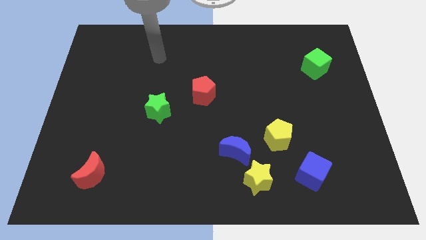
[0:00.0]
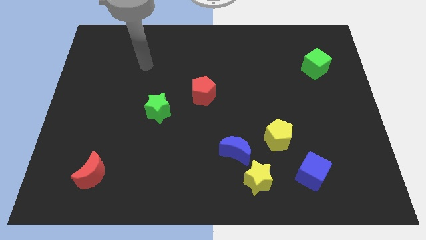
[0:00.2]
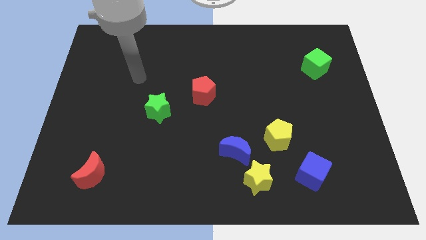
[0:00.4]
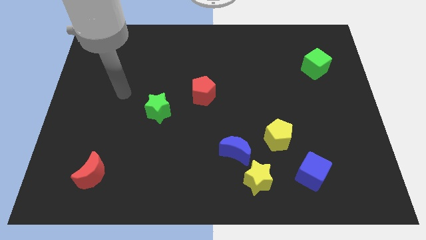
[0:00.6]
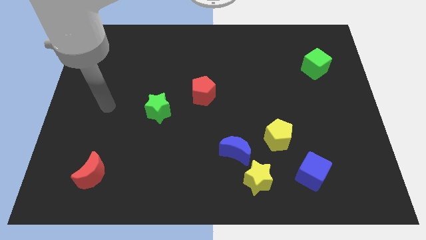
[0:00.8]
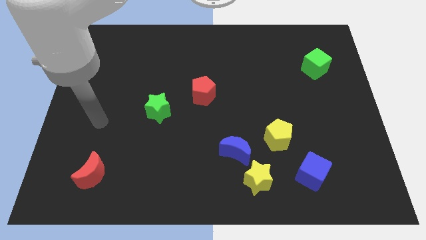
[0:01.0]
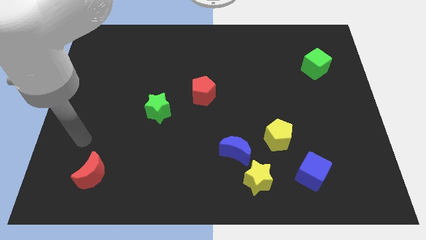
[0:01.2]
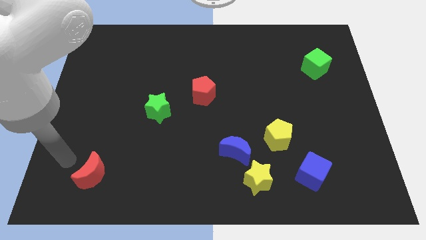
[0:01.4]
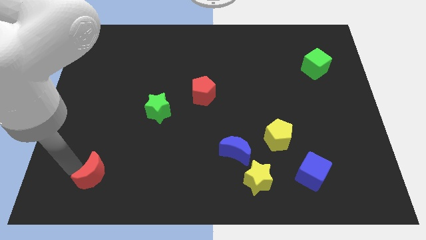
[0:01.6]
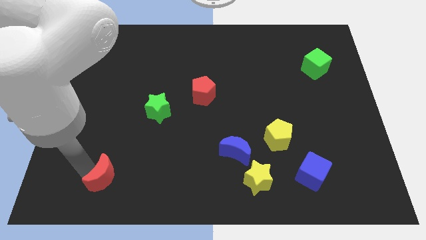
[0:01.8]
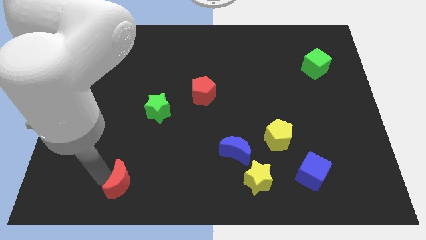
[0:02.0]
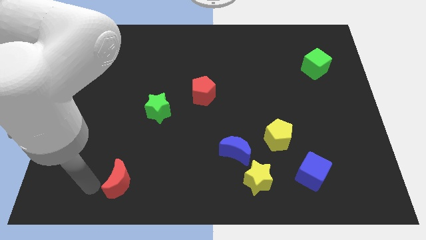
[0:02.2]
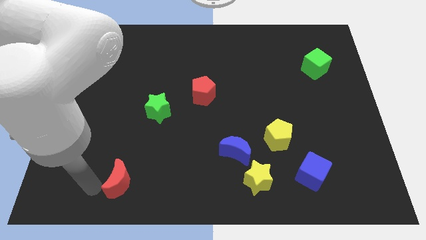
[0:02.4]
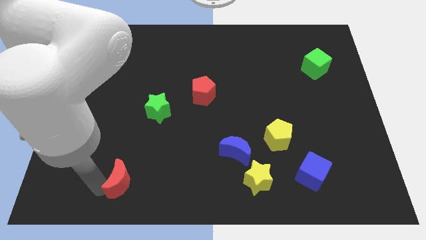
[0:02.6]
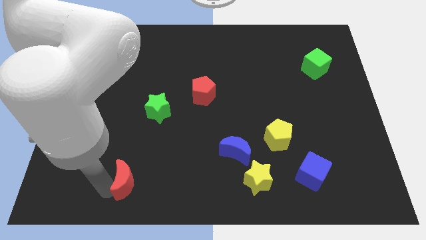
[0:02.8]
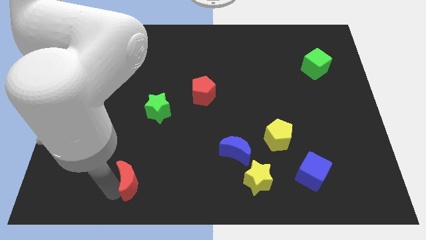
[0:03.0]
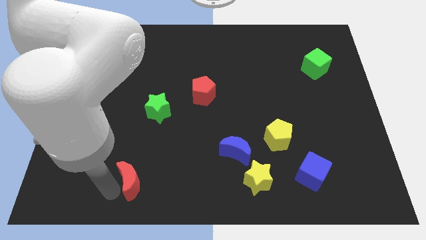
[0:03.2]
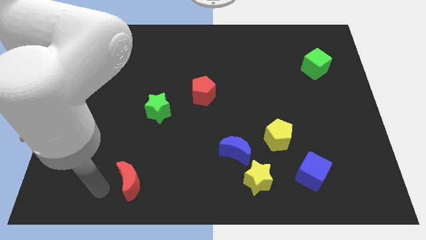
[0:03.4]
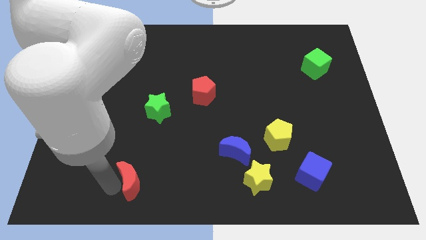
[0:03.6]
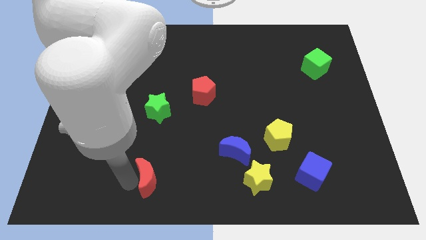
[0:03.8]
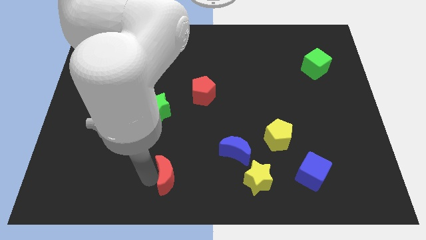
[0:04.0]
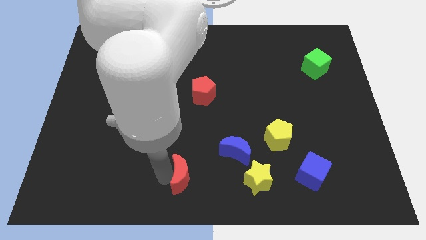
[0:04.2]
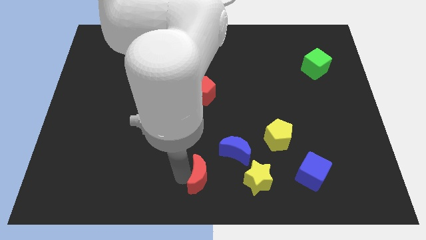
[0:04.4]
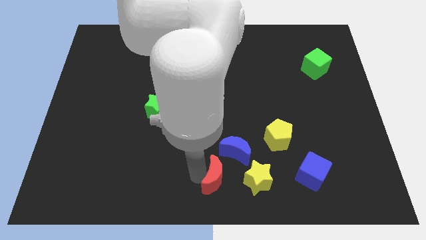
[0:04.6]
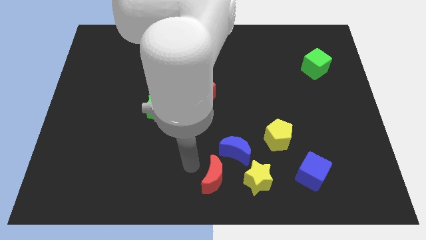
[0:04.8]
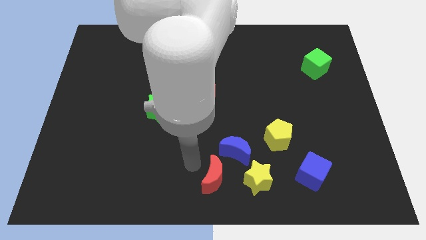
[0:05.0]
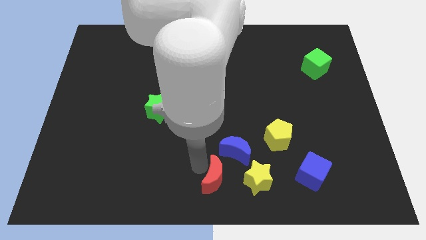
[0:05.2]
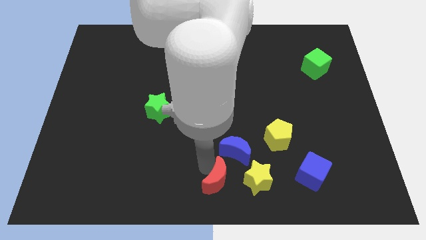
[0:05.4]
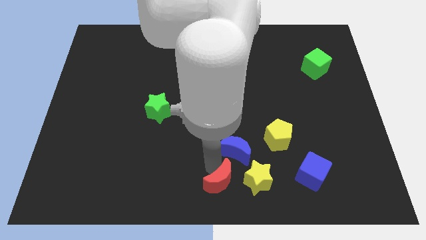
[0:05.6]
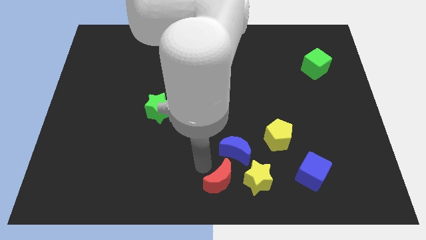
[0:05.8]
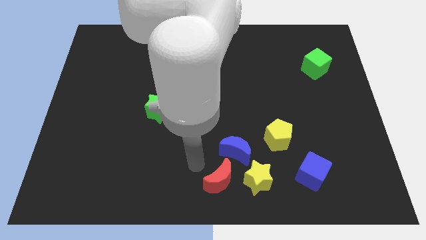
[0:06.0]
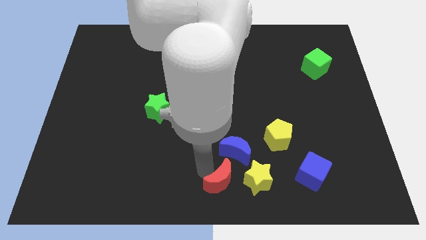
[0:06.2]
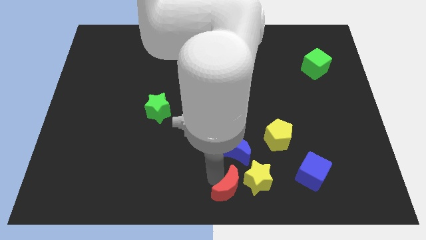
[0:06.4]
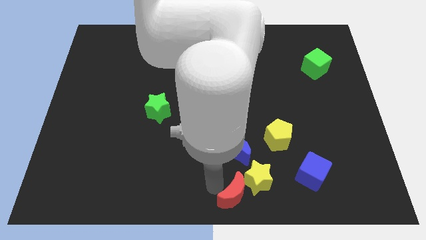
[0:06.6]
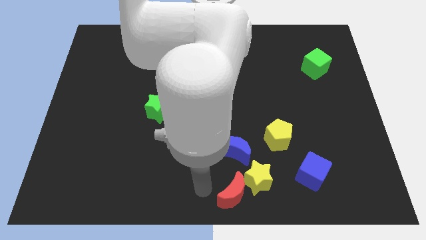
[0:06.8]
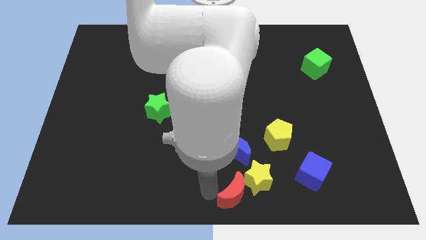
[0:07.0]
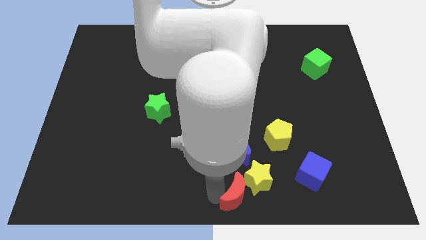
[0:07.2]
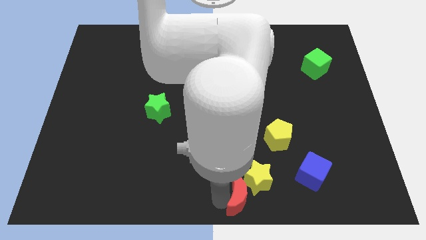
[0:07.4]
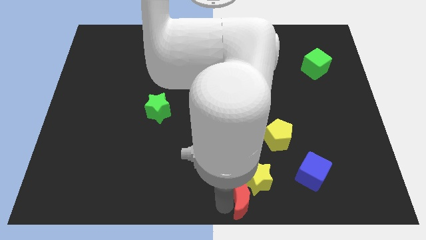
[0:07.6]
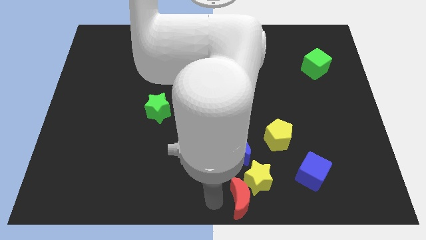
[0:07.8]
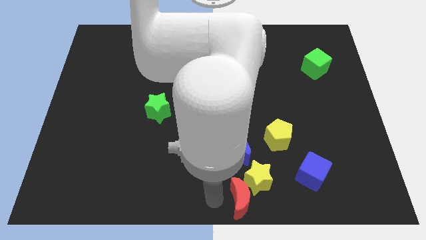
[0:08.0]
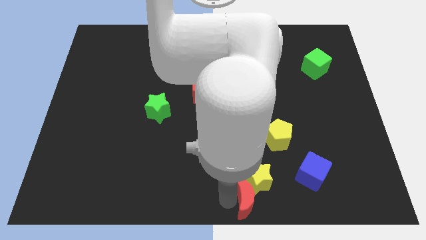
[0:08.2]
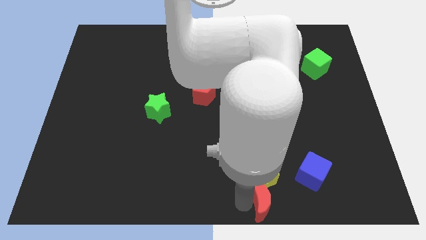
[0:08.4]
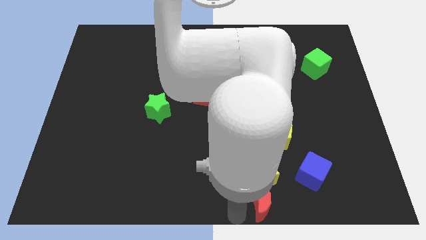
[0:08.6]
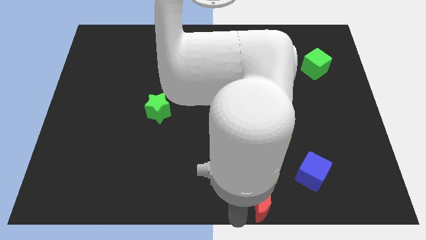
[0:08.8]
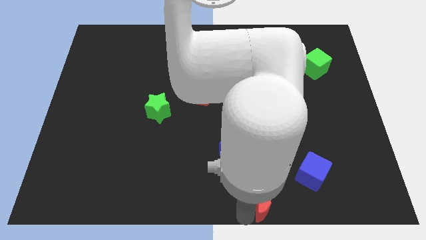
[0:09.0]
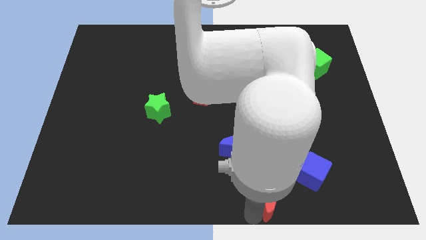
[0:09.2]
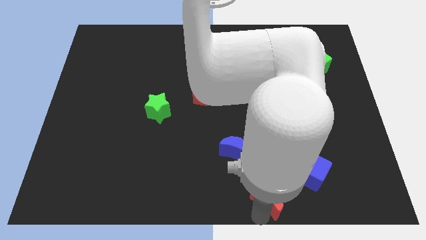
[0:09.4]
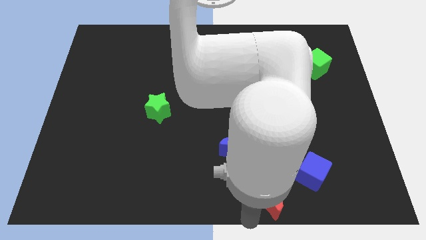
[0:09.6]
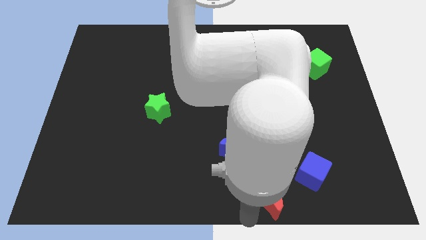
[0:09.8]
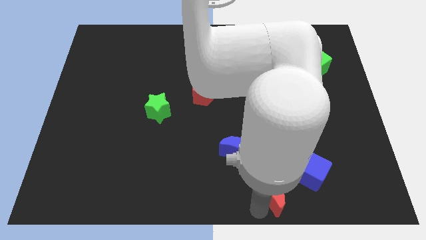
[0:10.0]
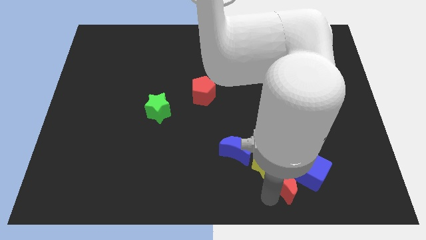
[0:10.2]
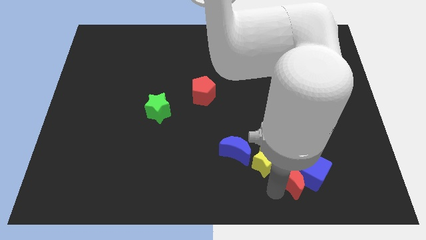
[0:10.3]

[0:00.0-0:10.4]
push the red moon close to the blue cube

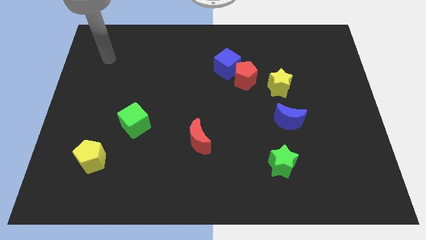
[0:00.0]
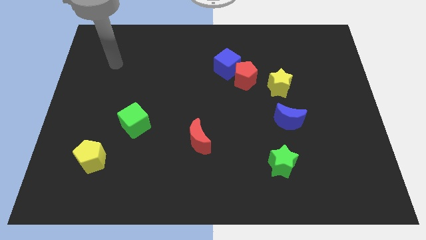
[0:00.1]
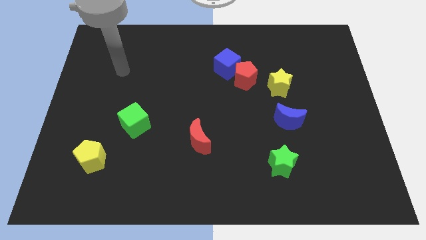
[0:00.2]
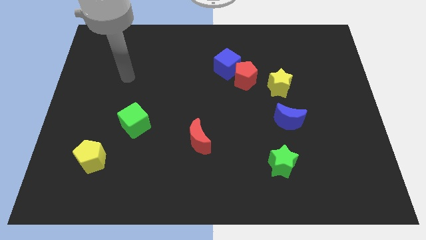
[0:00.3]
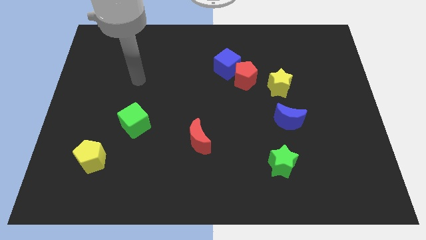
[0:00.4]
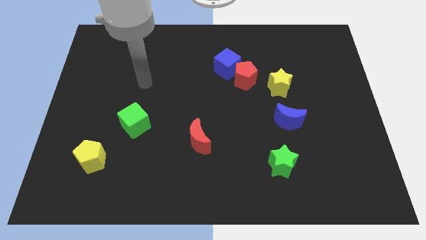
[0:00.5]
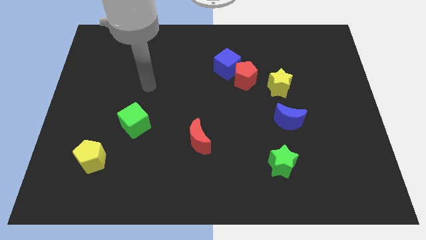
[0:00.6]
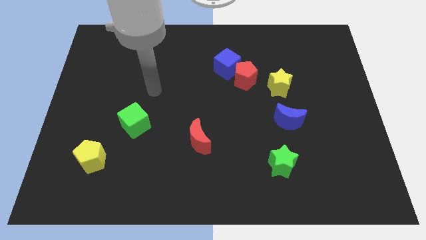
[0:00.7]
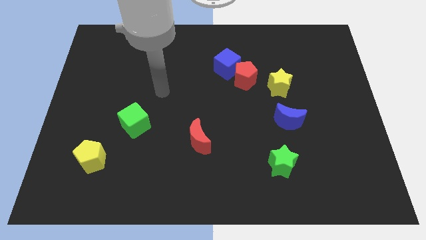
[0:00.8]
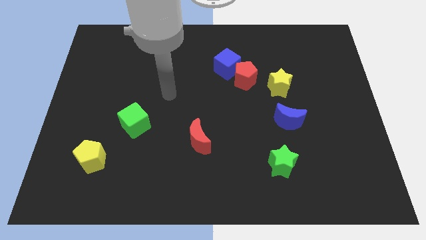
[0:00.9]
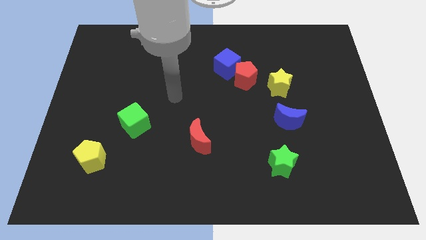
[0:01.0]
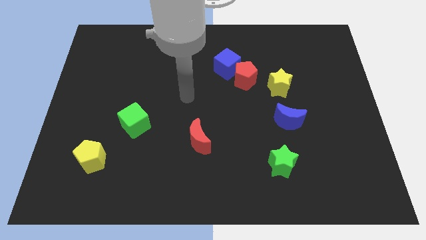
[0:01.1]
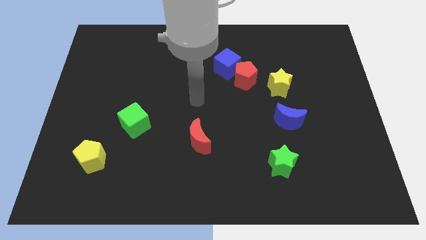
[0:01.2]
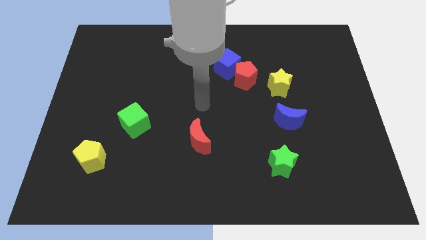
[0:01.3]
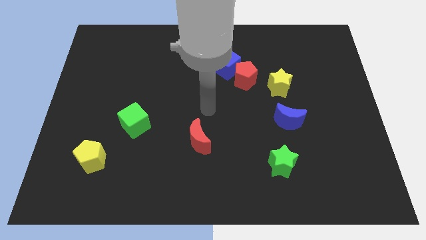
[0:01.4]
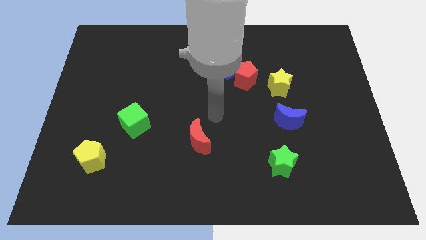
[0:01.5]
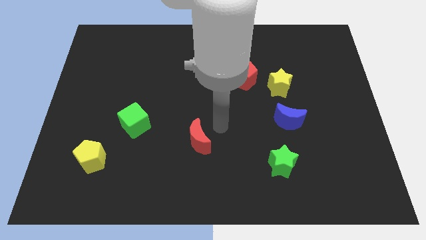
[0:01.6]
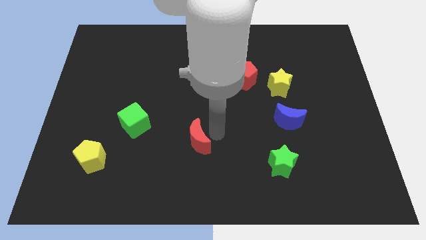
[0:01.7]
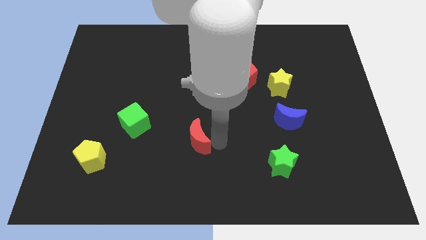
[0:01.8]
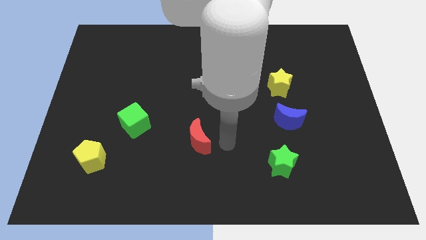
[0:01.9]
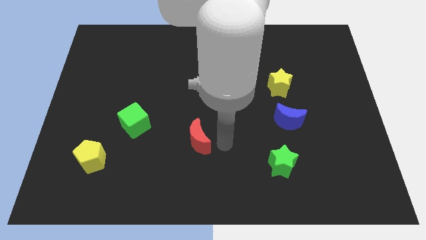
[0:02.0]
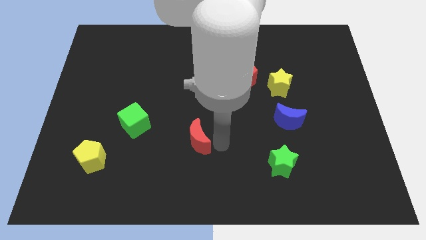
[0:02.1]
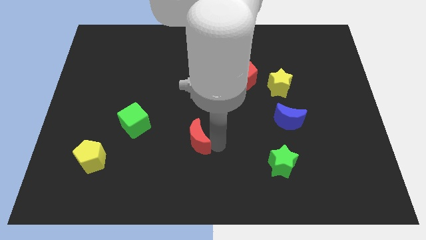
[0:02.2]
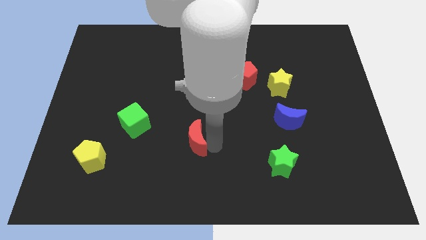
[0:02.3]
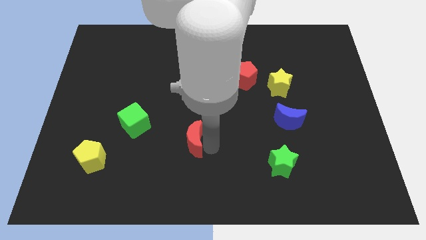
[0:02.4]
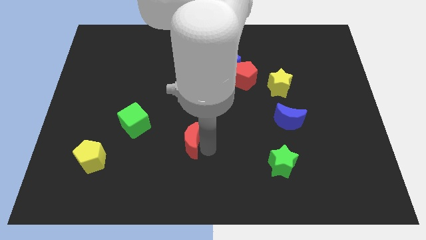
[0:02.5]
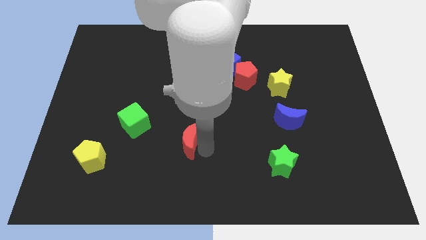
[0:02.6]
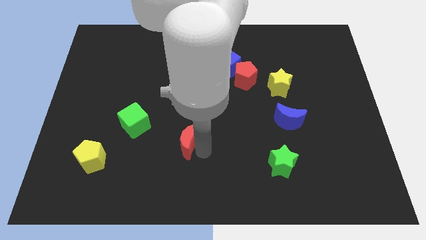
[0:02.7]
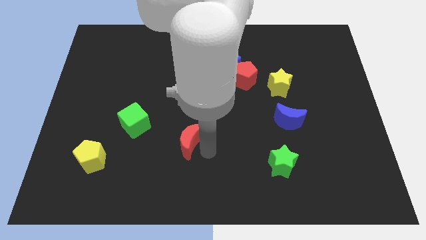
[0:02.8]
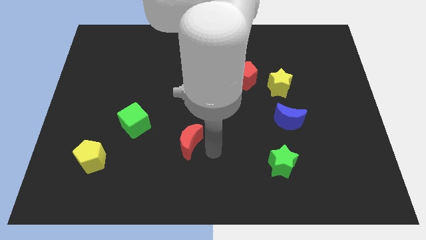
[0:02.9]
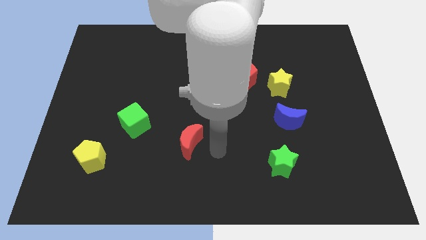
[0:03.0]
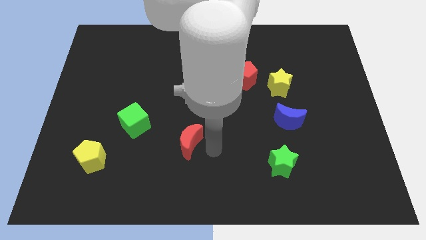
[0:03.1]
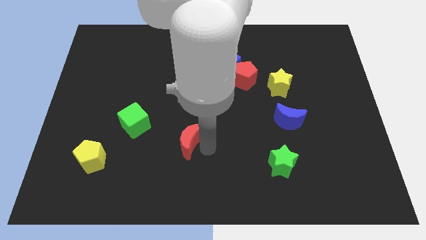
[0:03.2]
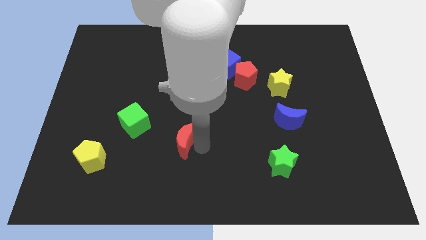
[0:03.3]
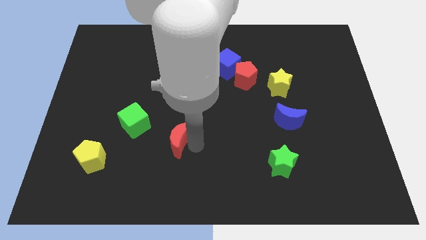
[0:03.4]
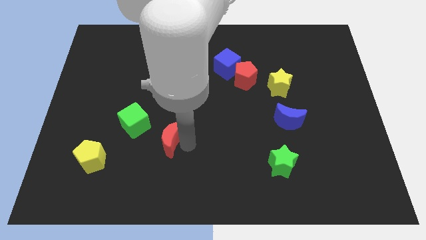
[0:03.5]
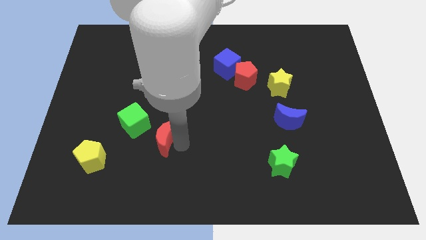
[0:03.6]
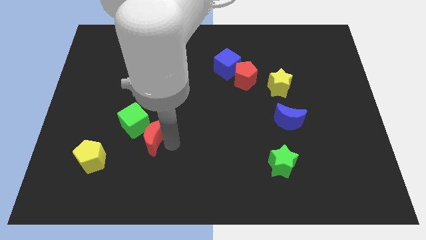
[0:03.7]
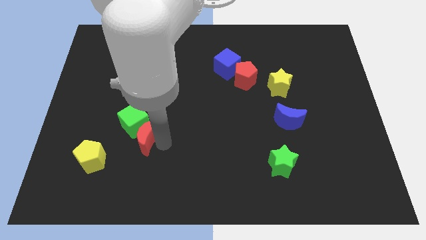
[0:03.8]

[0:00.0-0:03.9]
put the red moon towards the green cube
